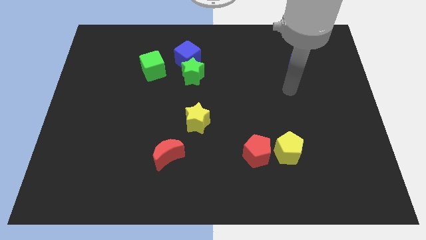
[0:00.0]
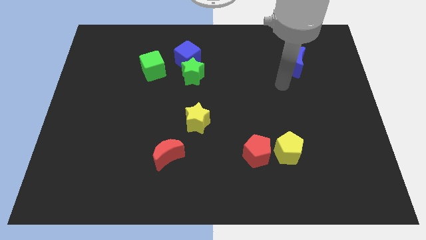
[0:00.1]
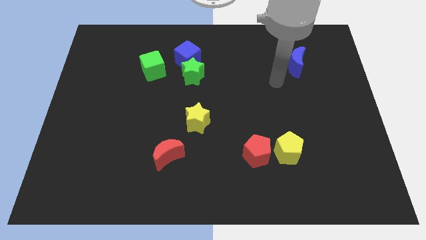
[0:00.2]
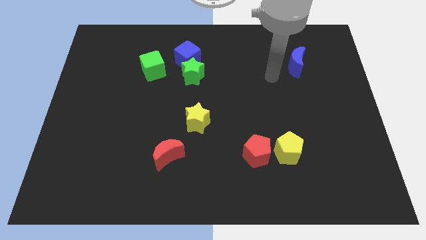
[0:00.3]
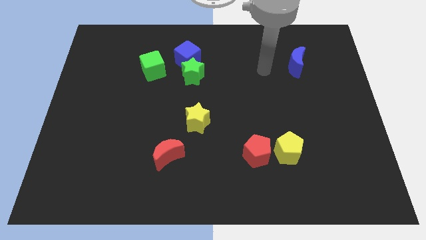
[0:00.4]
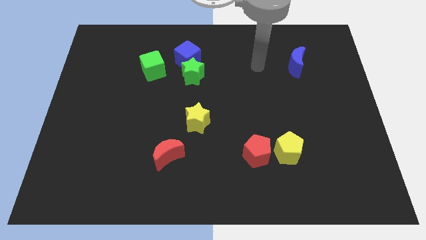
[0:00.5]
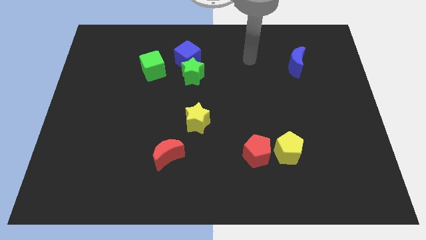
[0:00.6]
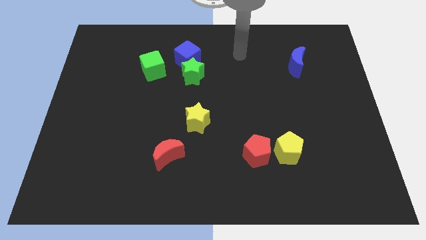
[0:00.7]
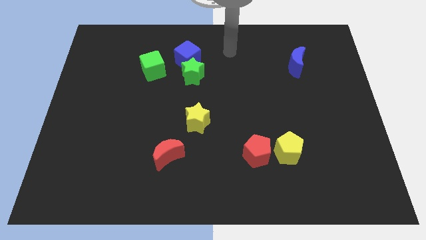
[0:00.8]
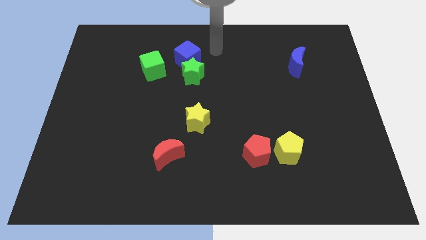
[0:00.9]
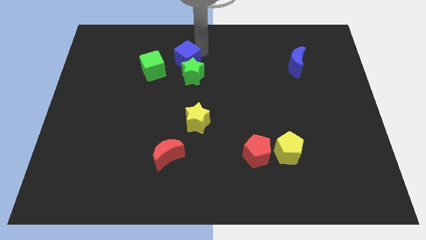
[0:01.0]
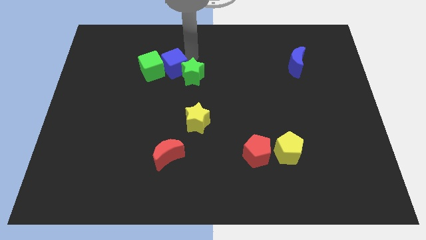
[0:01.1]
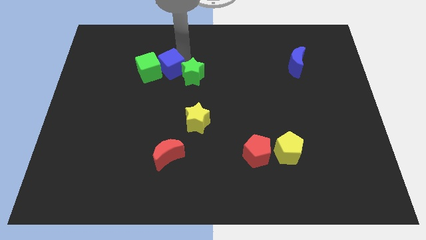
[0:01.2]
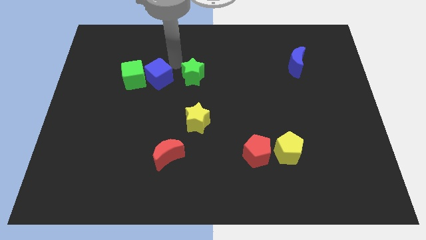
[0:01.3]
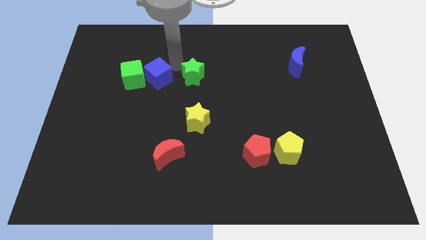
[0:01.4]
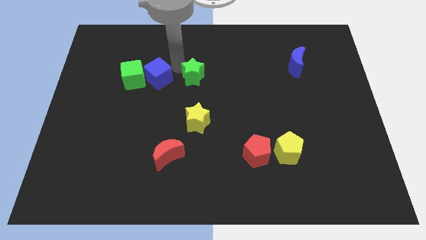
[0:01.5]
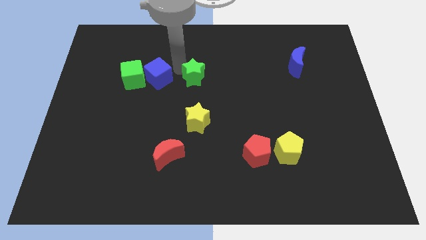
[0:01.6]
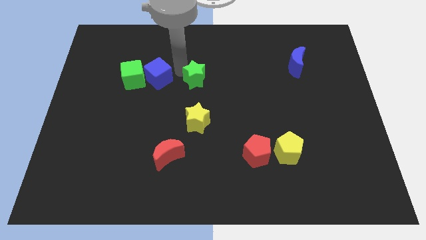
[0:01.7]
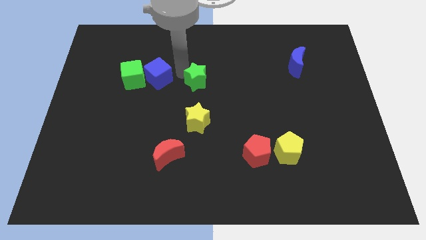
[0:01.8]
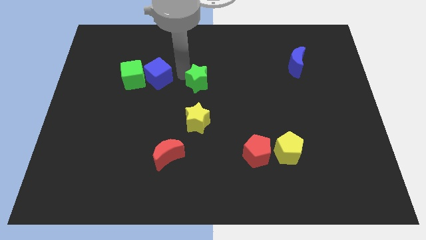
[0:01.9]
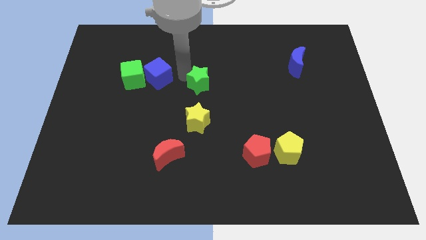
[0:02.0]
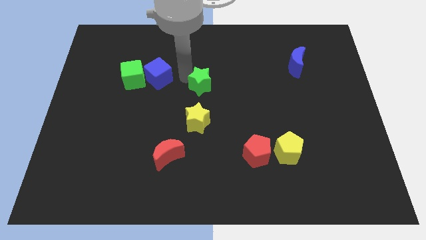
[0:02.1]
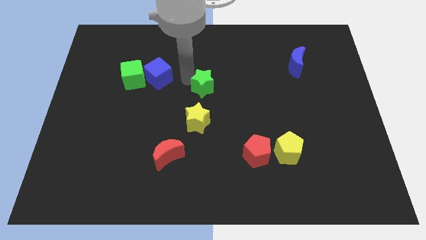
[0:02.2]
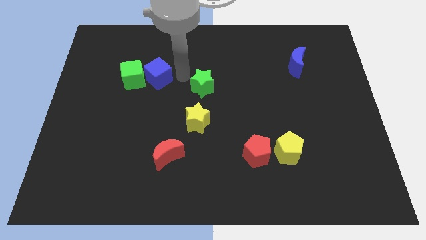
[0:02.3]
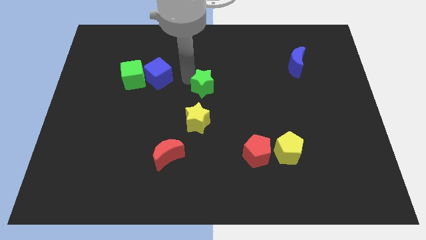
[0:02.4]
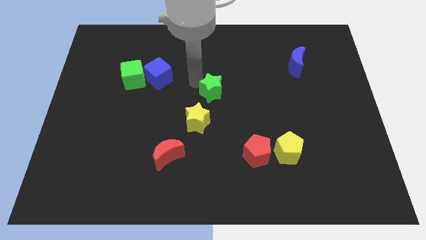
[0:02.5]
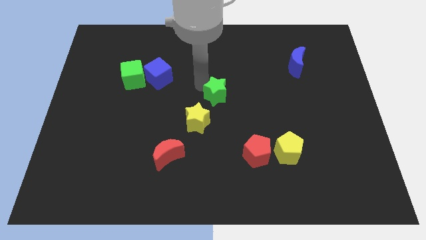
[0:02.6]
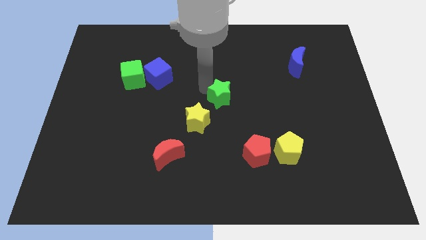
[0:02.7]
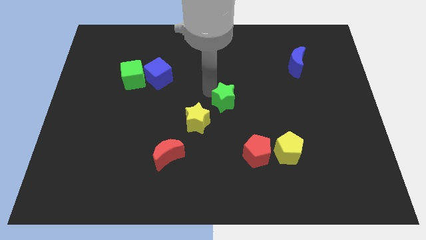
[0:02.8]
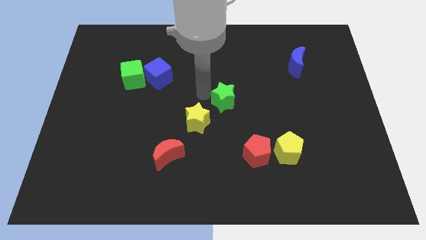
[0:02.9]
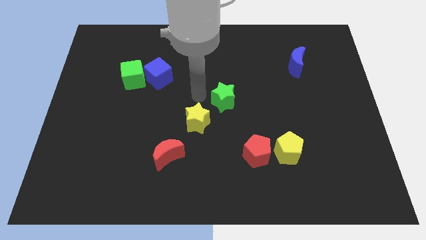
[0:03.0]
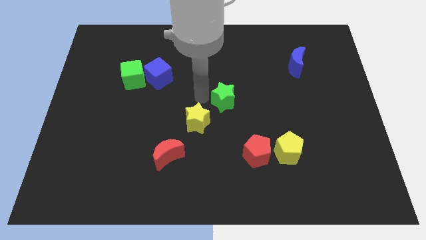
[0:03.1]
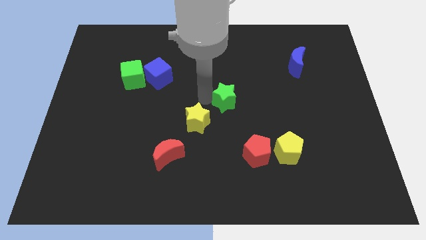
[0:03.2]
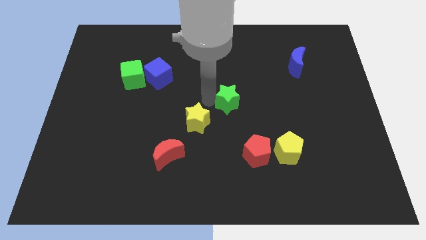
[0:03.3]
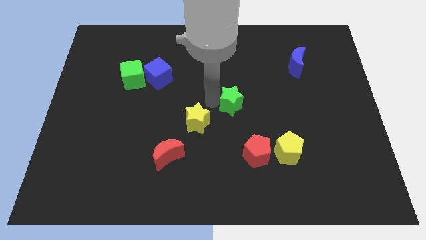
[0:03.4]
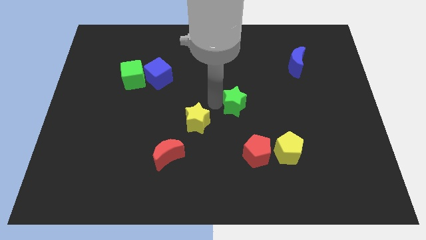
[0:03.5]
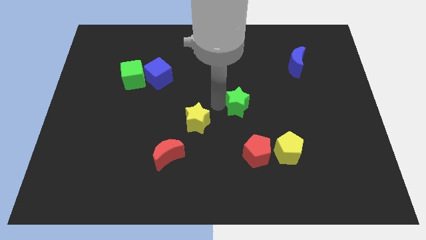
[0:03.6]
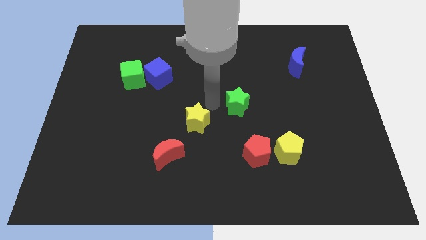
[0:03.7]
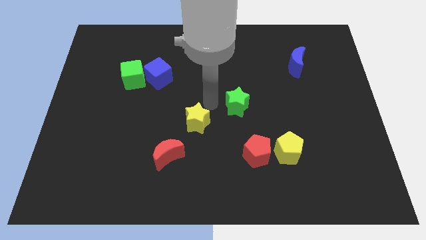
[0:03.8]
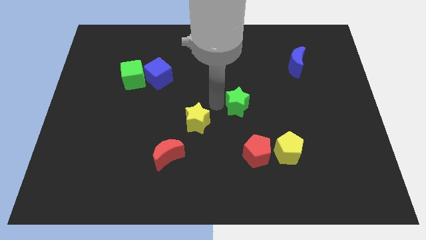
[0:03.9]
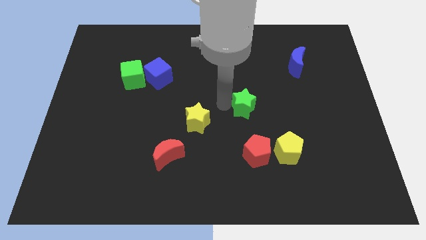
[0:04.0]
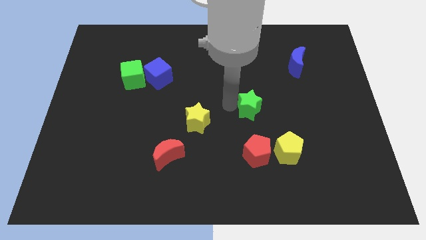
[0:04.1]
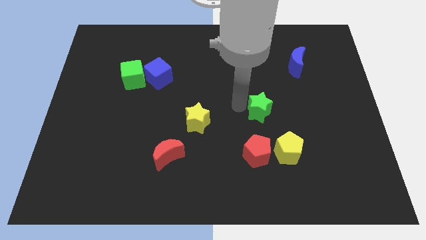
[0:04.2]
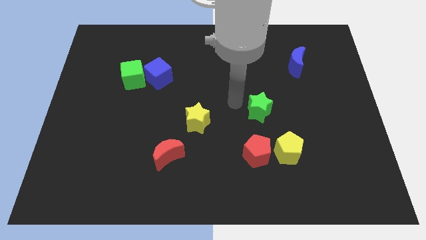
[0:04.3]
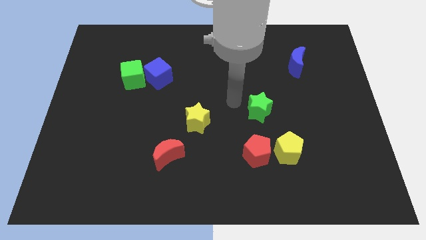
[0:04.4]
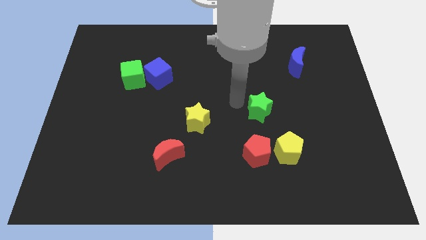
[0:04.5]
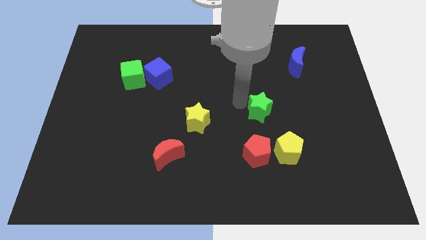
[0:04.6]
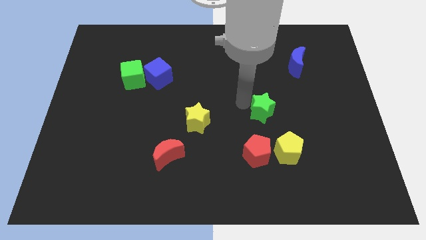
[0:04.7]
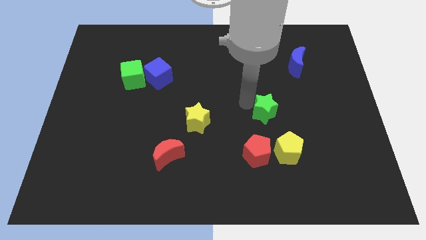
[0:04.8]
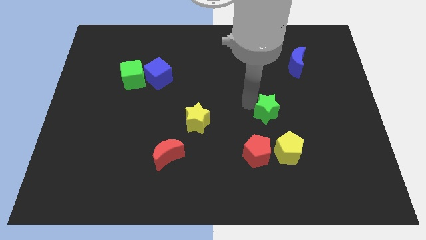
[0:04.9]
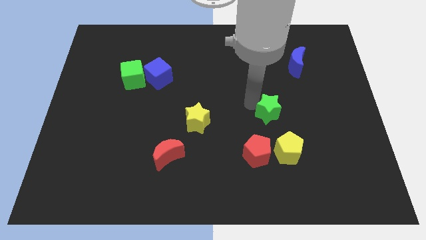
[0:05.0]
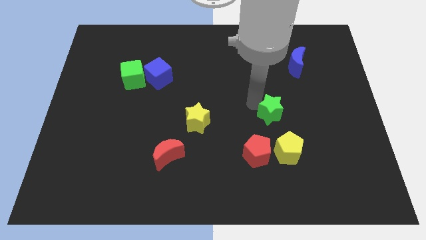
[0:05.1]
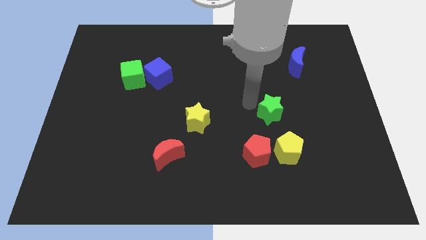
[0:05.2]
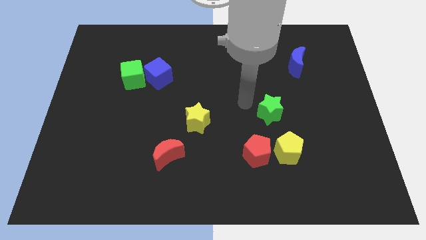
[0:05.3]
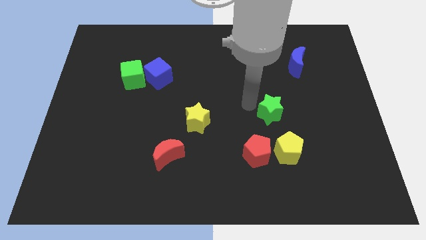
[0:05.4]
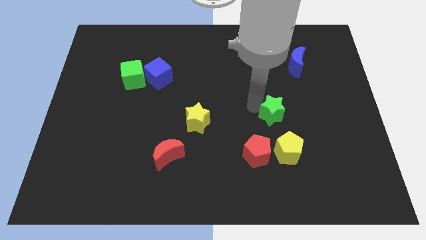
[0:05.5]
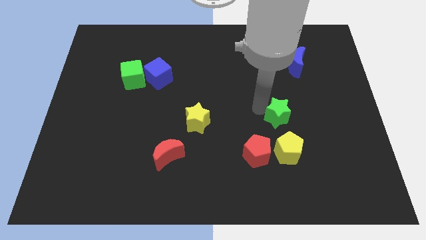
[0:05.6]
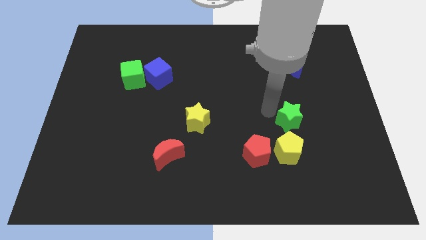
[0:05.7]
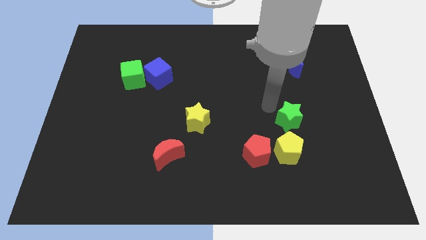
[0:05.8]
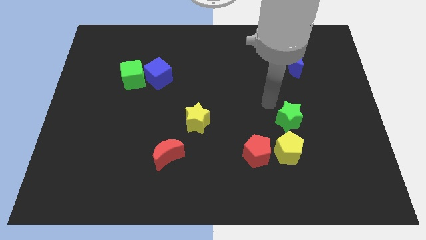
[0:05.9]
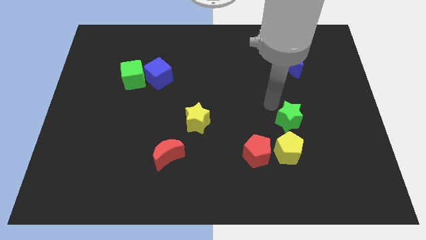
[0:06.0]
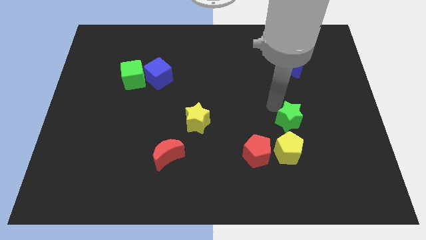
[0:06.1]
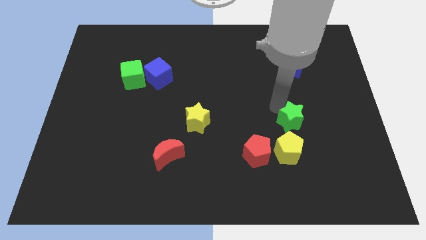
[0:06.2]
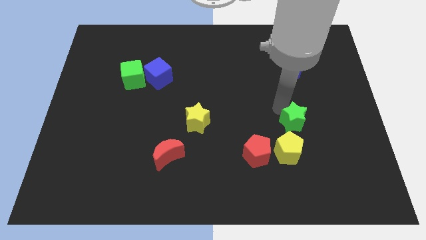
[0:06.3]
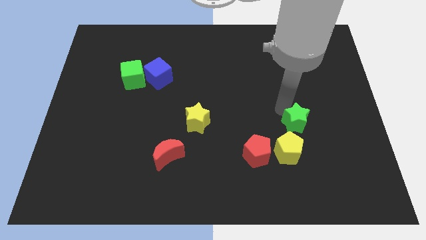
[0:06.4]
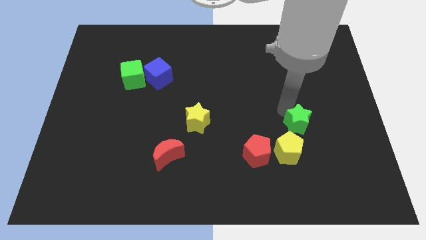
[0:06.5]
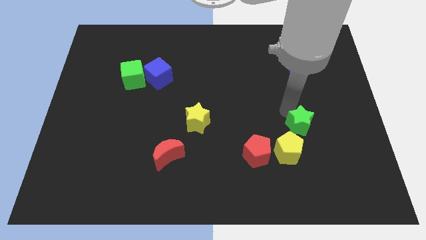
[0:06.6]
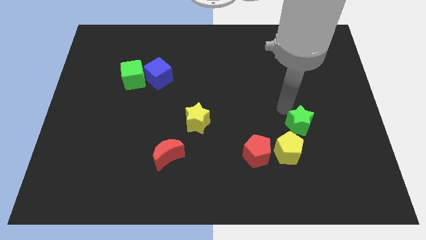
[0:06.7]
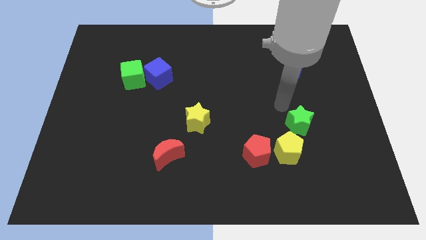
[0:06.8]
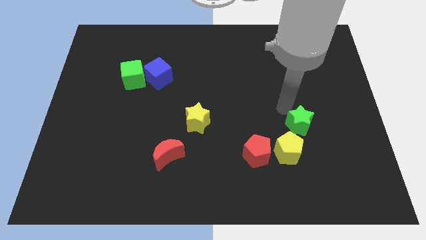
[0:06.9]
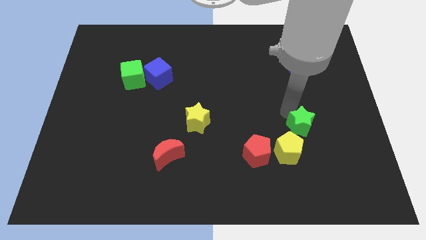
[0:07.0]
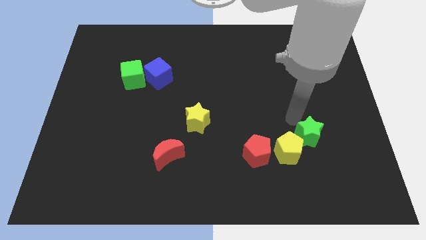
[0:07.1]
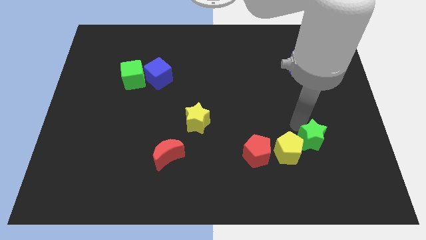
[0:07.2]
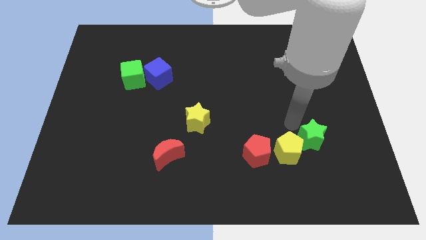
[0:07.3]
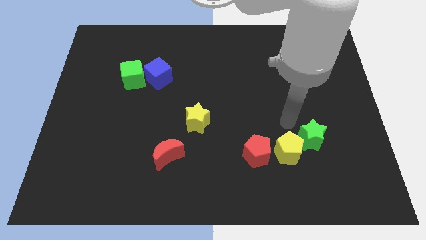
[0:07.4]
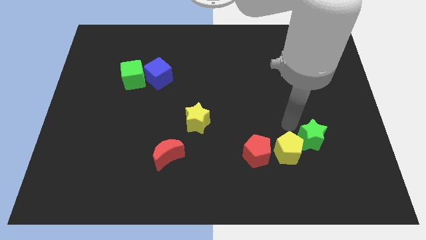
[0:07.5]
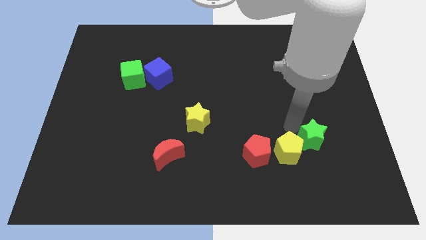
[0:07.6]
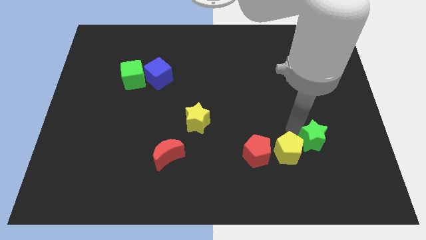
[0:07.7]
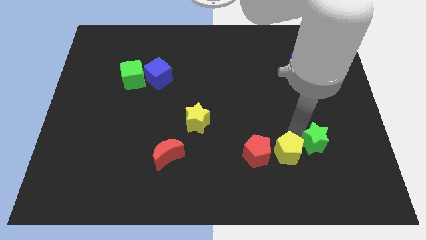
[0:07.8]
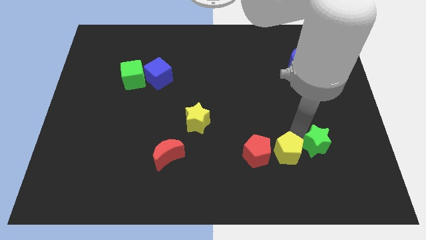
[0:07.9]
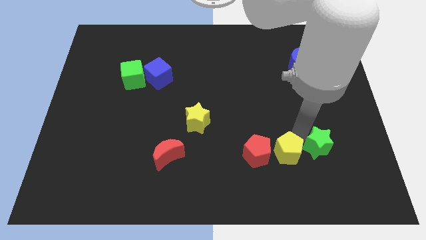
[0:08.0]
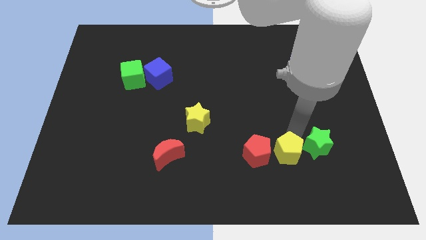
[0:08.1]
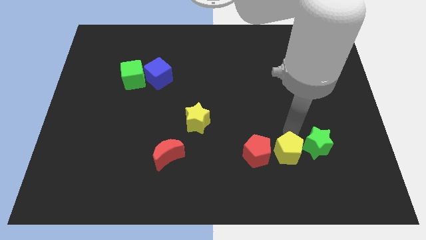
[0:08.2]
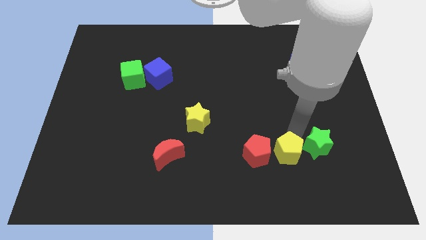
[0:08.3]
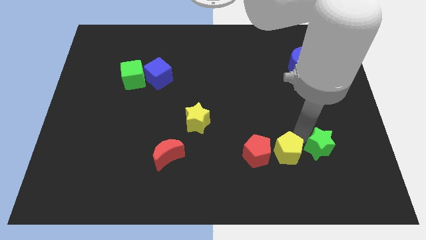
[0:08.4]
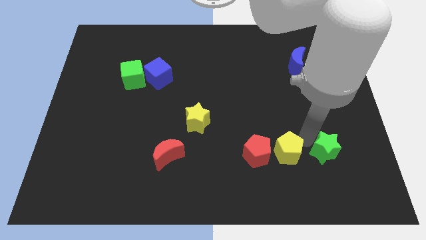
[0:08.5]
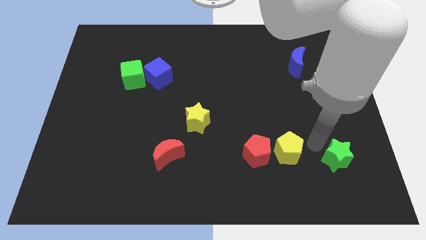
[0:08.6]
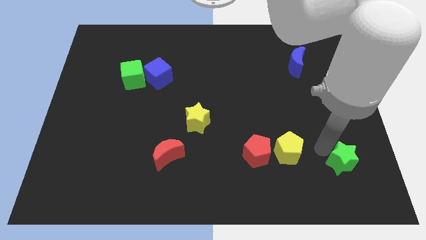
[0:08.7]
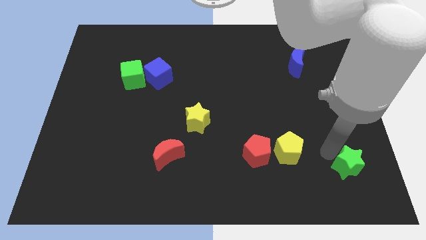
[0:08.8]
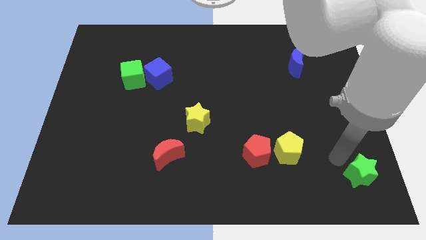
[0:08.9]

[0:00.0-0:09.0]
slide the green star to the bottom right corner
